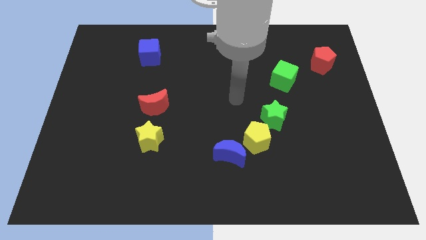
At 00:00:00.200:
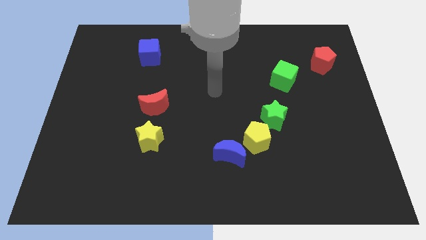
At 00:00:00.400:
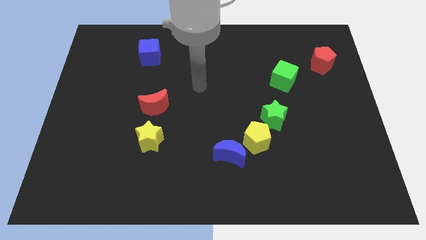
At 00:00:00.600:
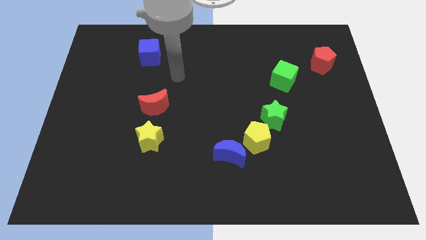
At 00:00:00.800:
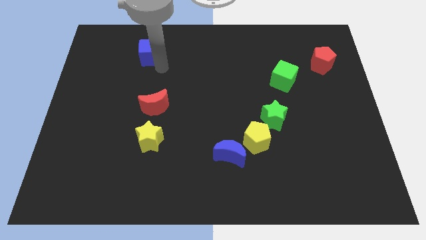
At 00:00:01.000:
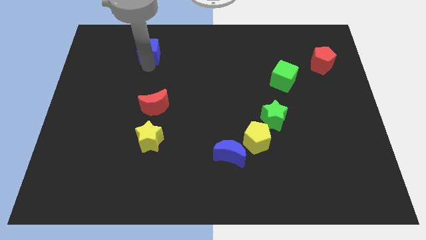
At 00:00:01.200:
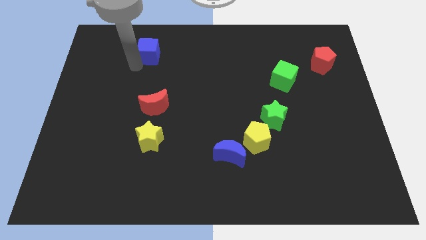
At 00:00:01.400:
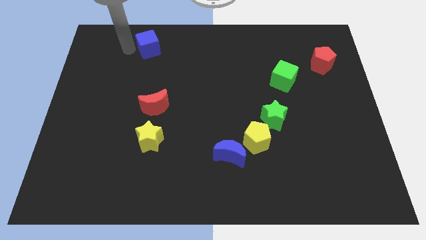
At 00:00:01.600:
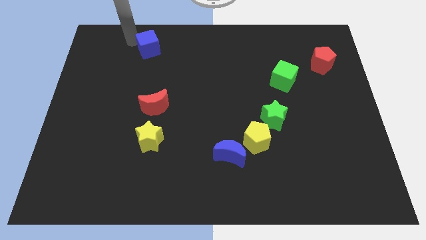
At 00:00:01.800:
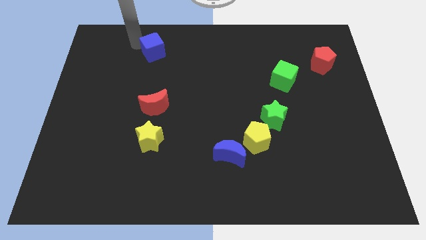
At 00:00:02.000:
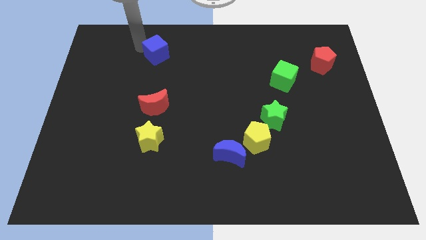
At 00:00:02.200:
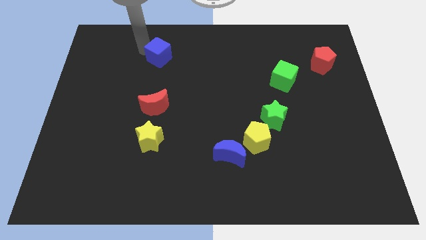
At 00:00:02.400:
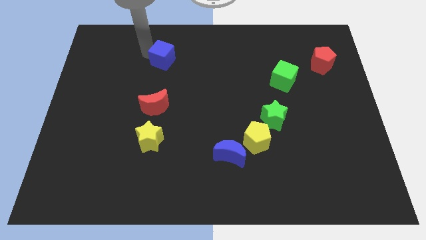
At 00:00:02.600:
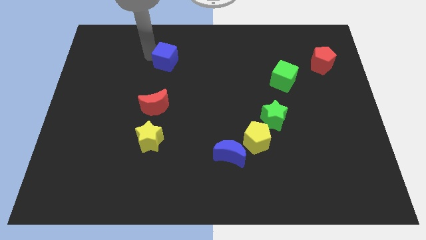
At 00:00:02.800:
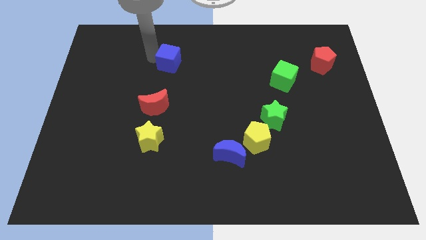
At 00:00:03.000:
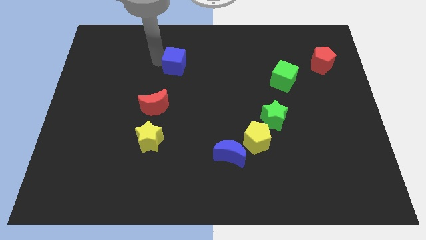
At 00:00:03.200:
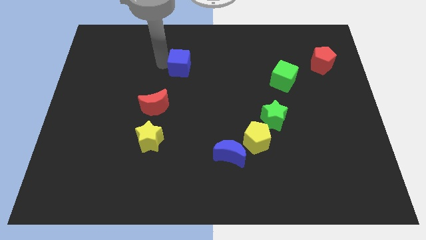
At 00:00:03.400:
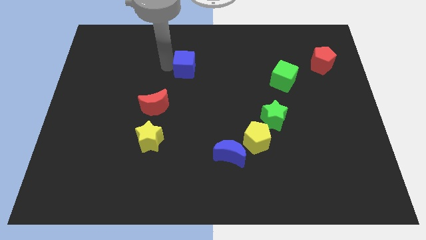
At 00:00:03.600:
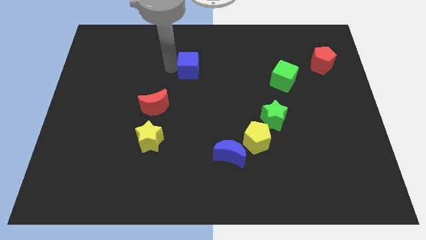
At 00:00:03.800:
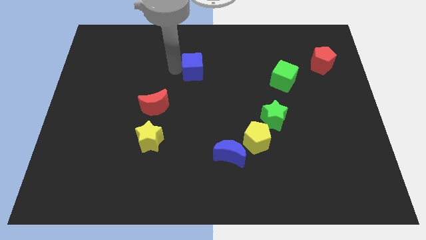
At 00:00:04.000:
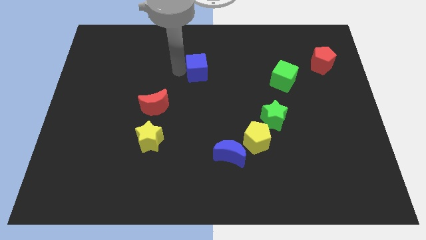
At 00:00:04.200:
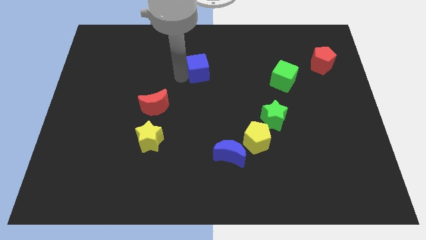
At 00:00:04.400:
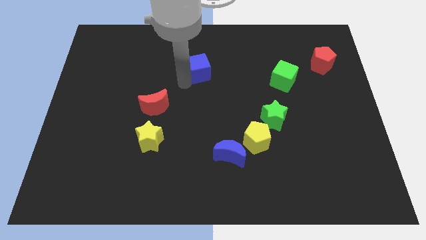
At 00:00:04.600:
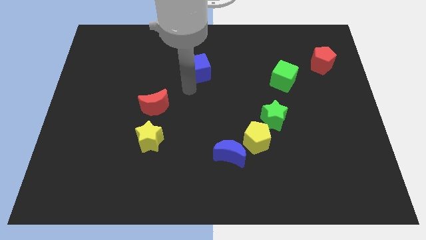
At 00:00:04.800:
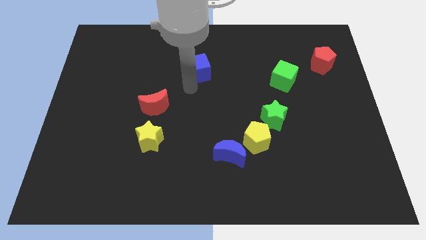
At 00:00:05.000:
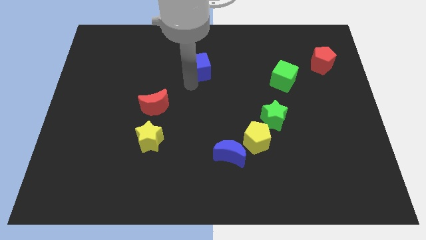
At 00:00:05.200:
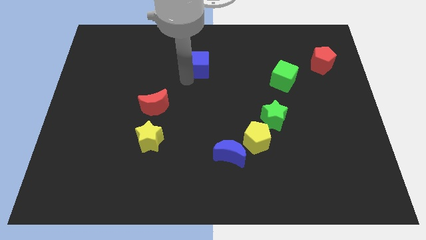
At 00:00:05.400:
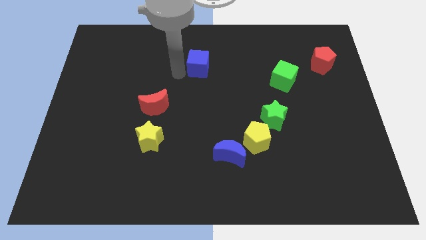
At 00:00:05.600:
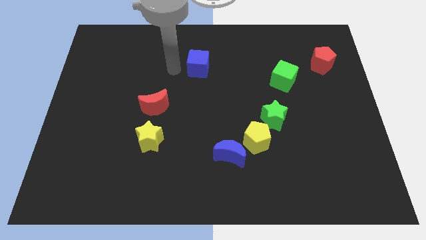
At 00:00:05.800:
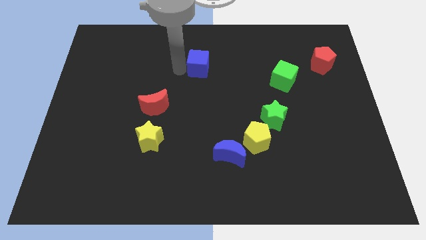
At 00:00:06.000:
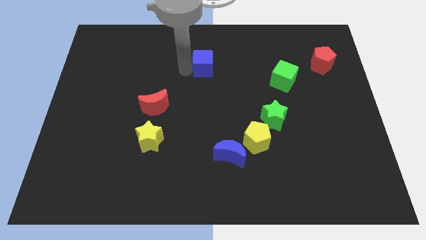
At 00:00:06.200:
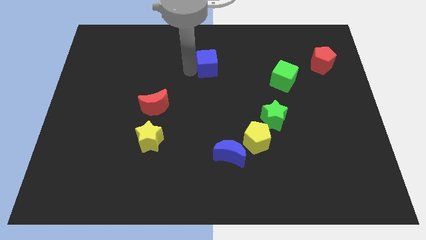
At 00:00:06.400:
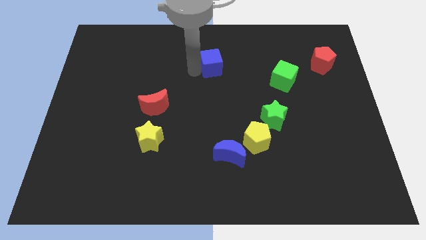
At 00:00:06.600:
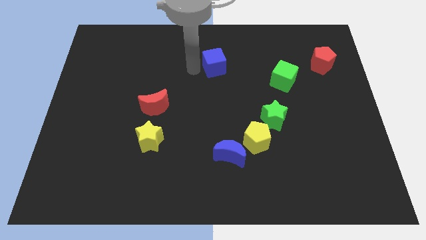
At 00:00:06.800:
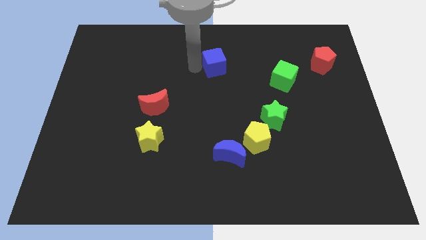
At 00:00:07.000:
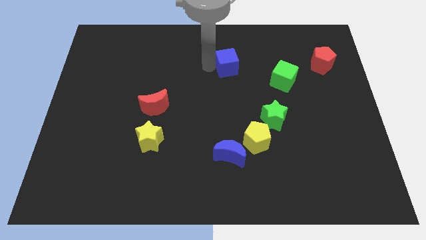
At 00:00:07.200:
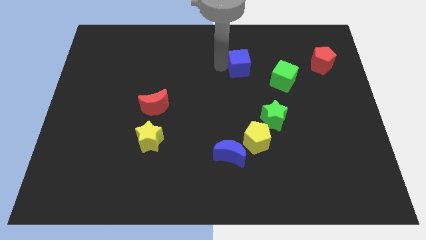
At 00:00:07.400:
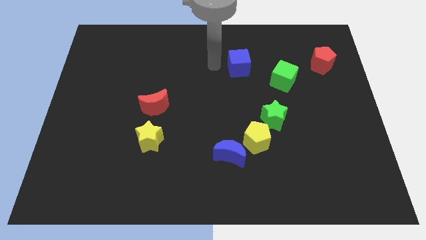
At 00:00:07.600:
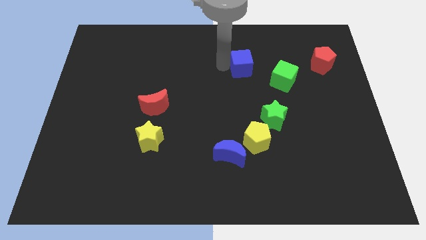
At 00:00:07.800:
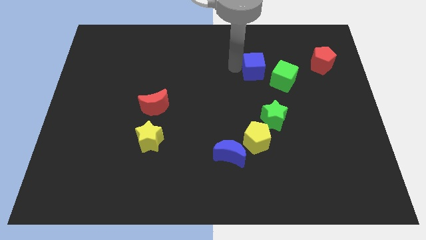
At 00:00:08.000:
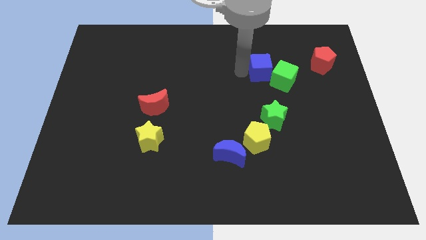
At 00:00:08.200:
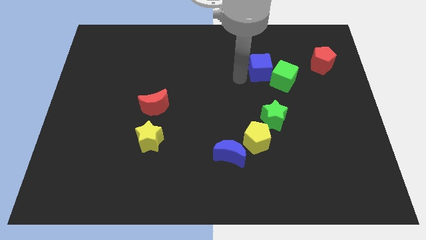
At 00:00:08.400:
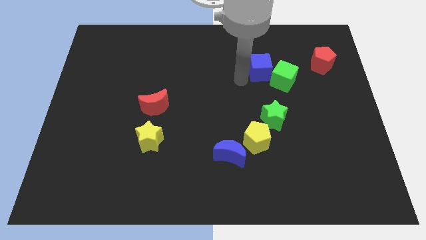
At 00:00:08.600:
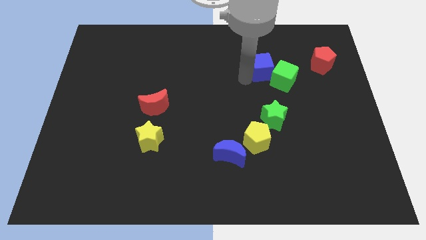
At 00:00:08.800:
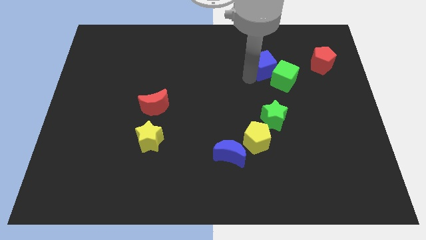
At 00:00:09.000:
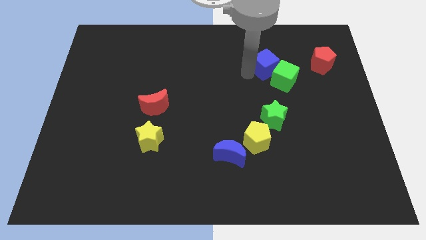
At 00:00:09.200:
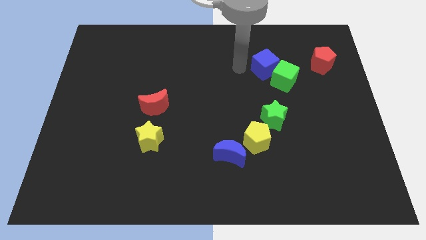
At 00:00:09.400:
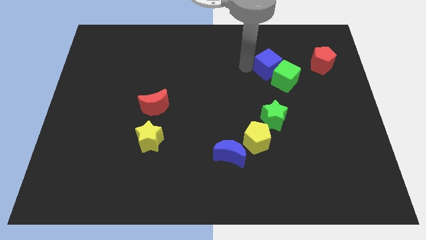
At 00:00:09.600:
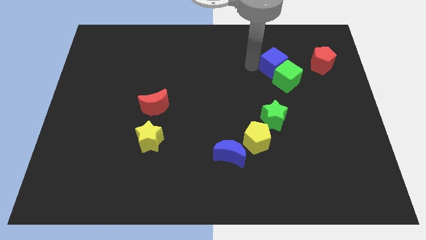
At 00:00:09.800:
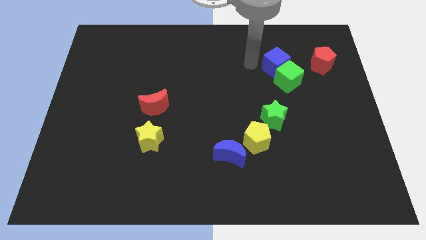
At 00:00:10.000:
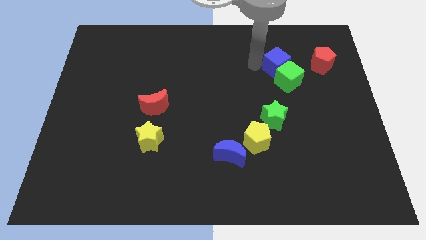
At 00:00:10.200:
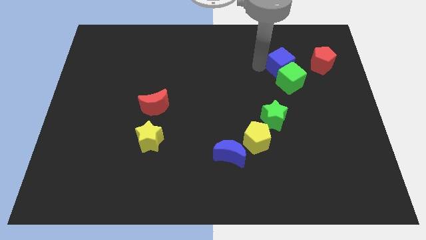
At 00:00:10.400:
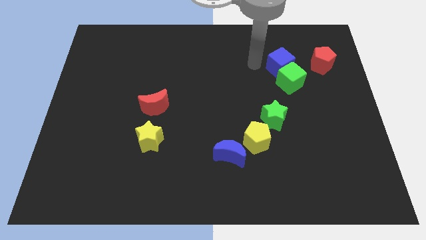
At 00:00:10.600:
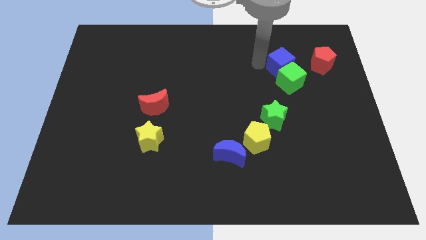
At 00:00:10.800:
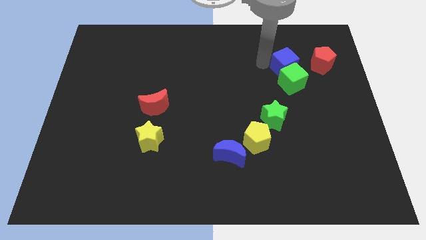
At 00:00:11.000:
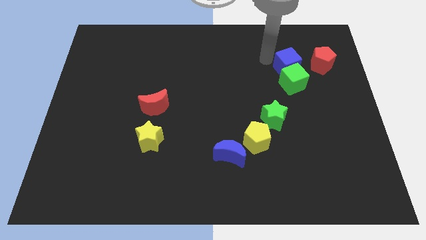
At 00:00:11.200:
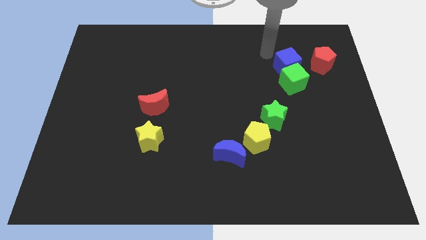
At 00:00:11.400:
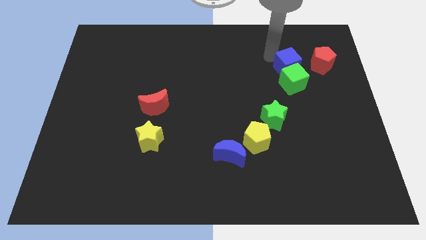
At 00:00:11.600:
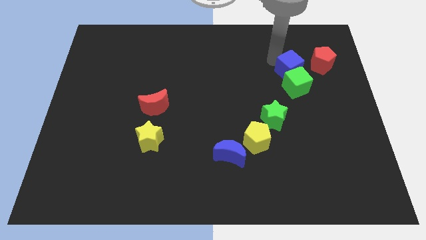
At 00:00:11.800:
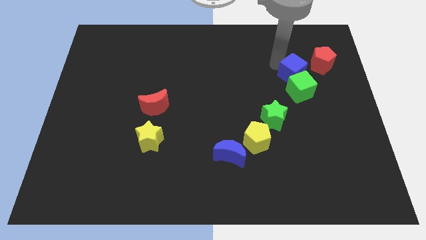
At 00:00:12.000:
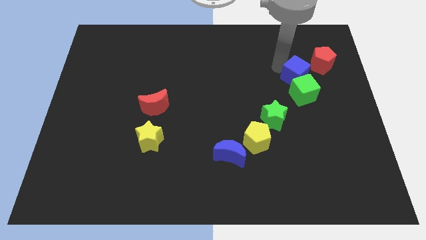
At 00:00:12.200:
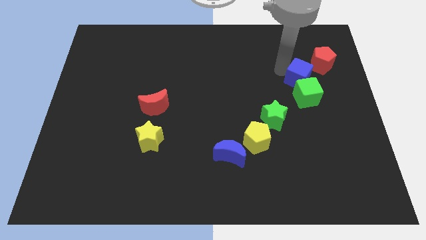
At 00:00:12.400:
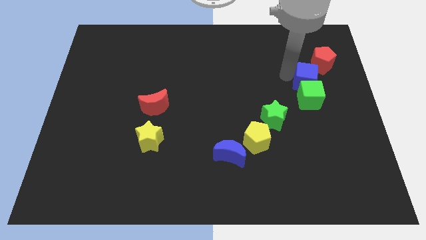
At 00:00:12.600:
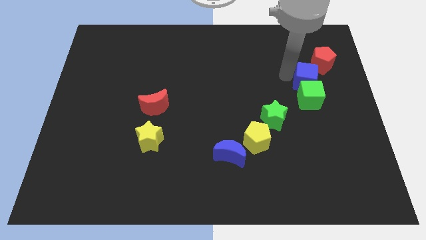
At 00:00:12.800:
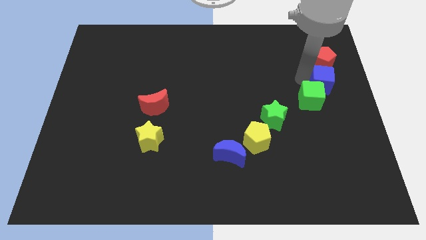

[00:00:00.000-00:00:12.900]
slide the blue cube to the center right

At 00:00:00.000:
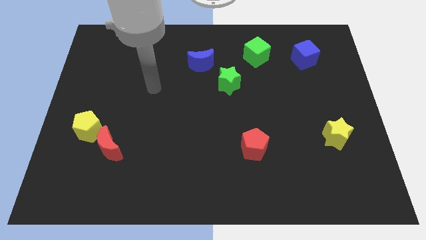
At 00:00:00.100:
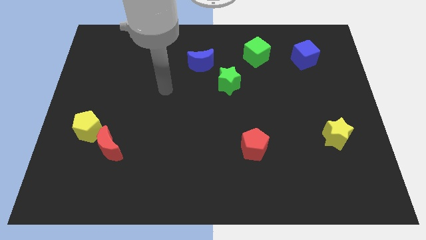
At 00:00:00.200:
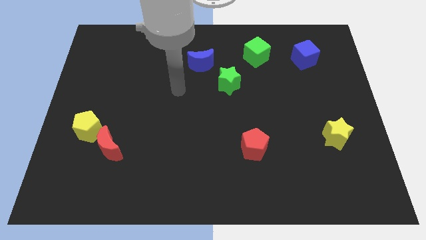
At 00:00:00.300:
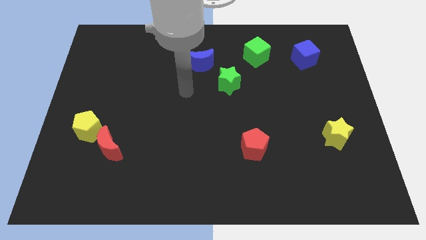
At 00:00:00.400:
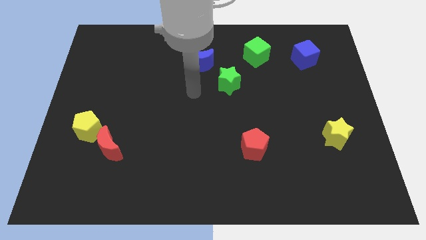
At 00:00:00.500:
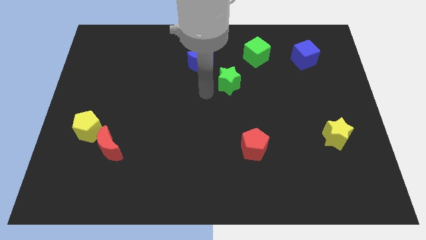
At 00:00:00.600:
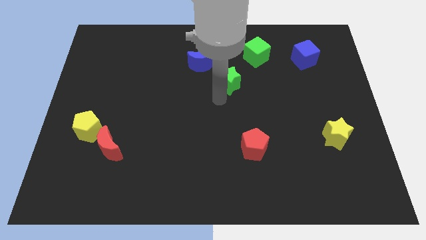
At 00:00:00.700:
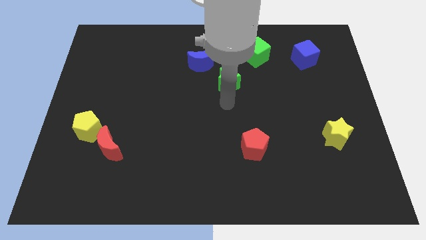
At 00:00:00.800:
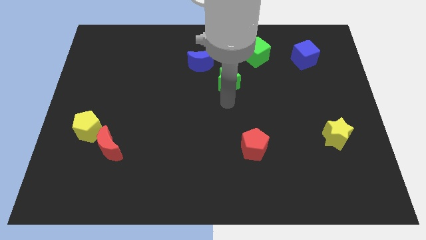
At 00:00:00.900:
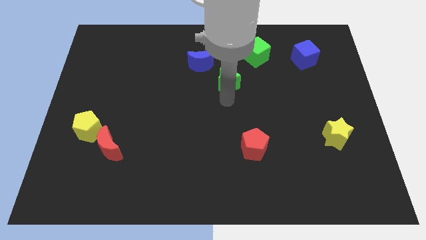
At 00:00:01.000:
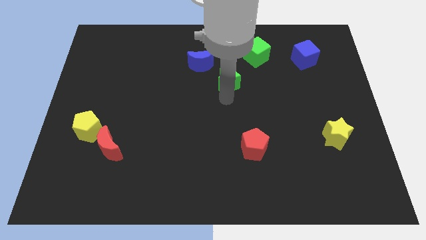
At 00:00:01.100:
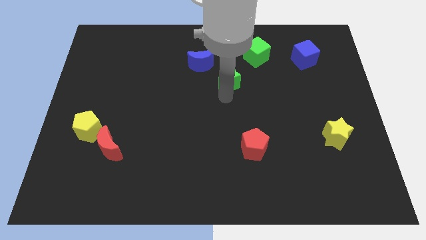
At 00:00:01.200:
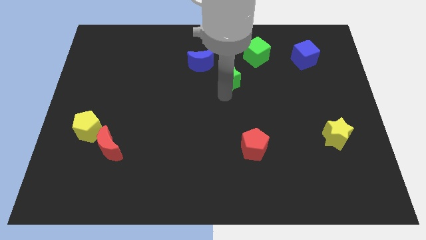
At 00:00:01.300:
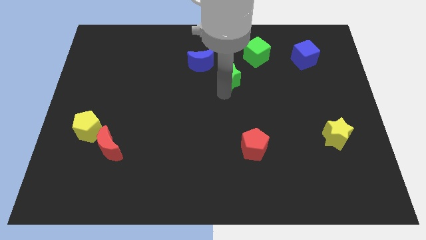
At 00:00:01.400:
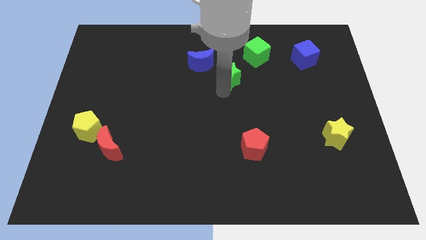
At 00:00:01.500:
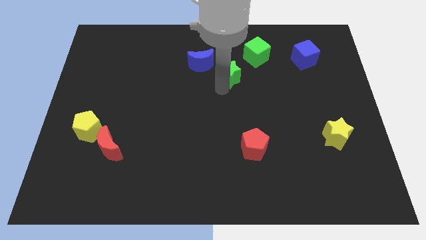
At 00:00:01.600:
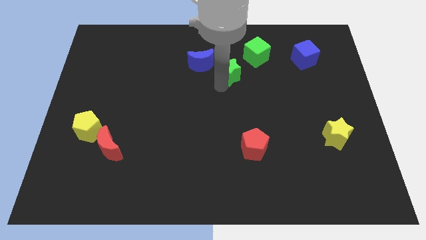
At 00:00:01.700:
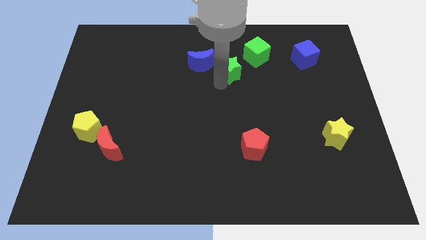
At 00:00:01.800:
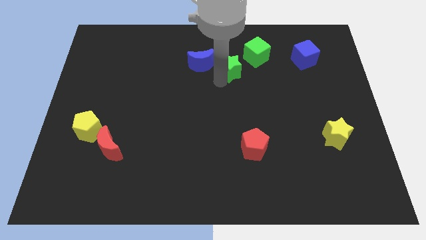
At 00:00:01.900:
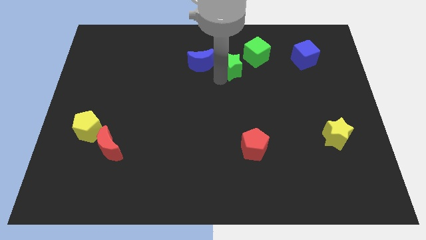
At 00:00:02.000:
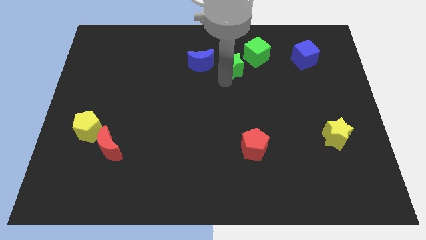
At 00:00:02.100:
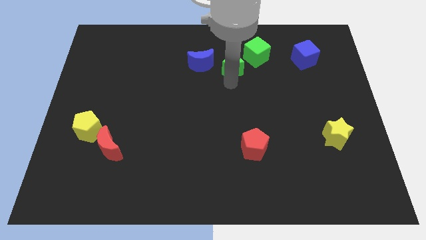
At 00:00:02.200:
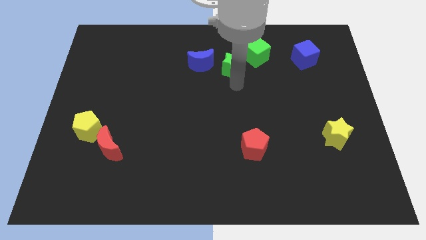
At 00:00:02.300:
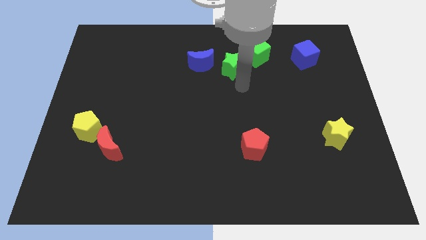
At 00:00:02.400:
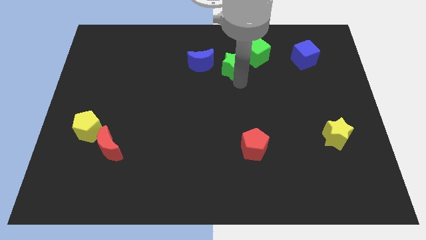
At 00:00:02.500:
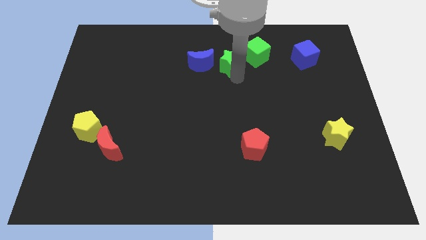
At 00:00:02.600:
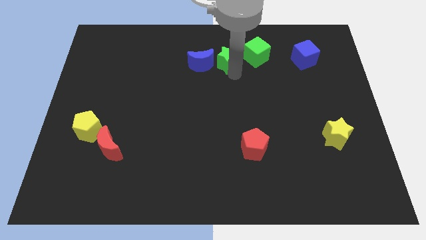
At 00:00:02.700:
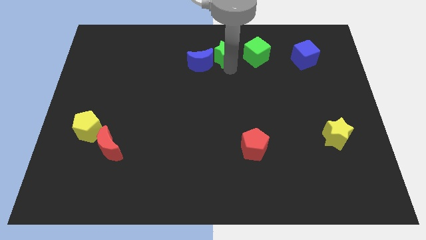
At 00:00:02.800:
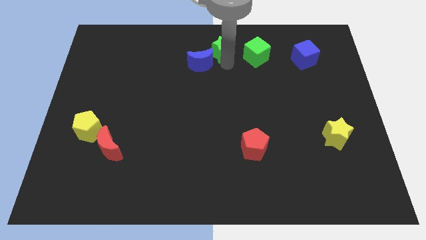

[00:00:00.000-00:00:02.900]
slide the green star to the top
